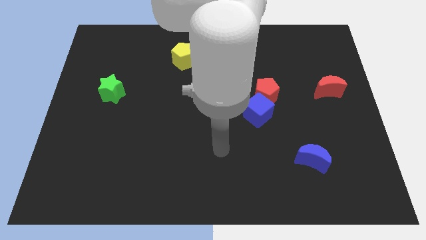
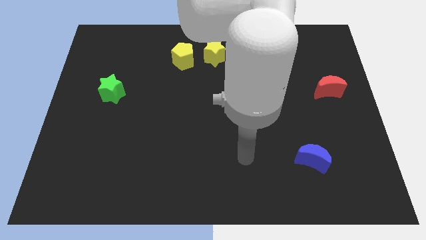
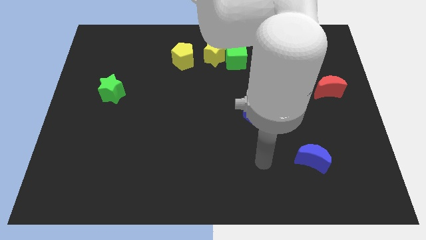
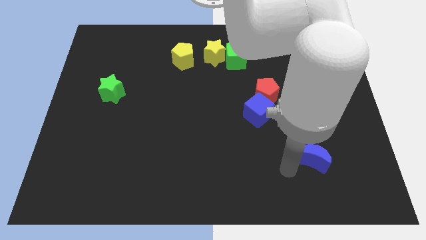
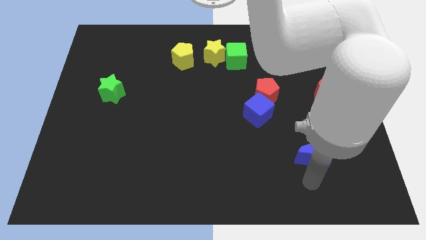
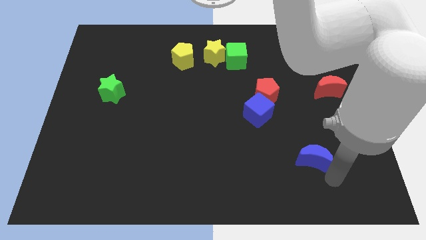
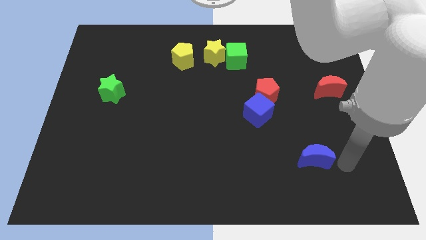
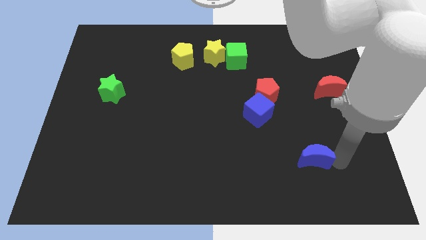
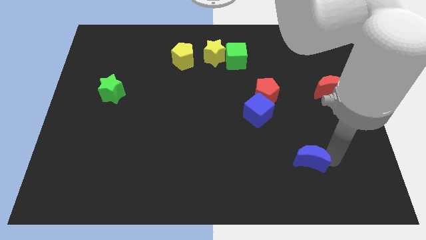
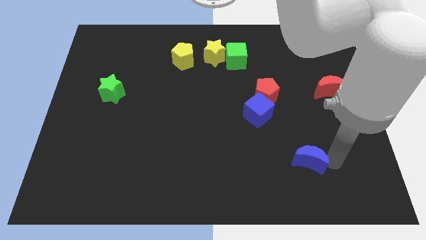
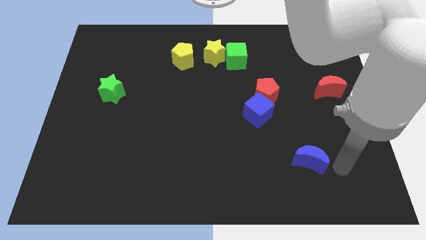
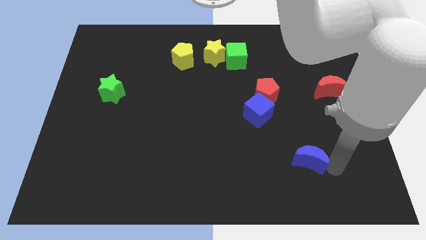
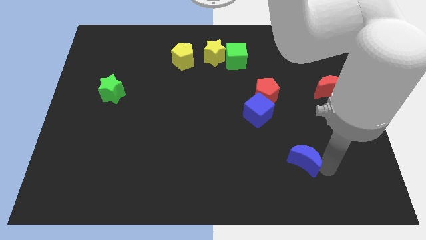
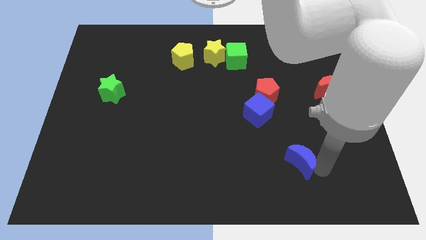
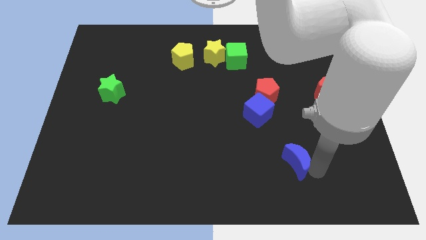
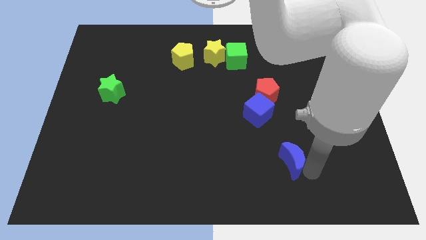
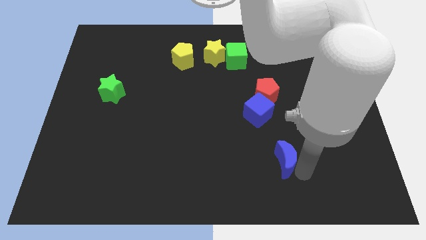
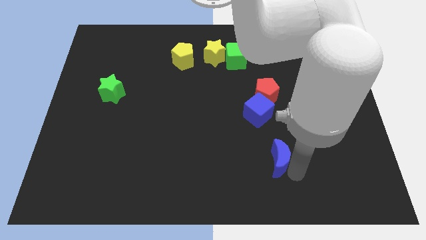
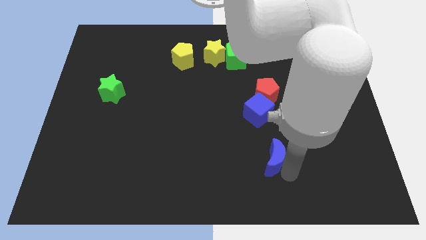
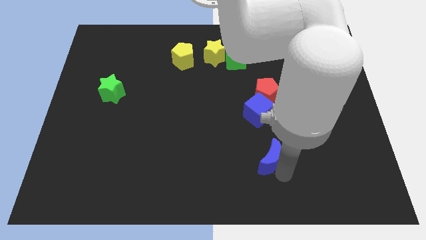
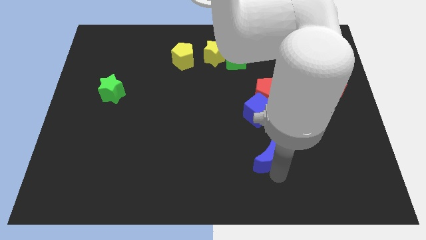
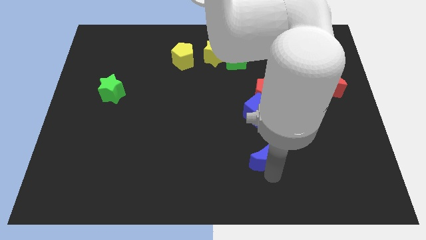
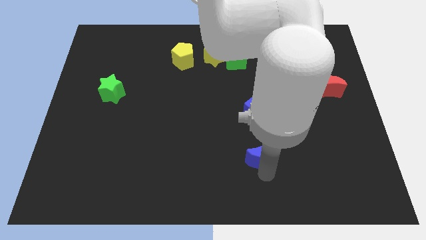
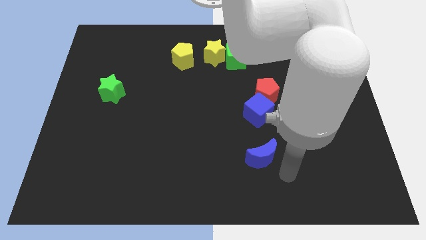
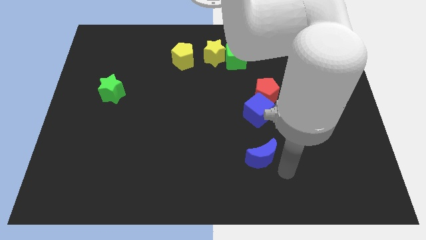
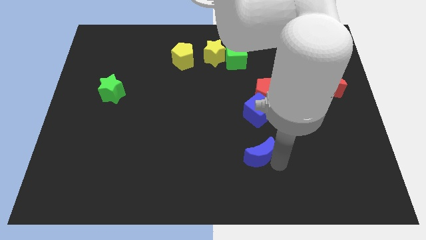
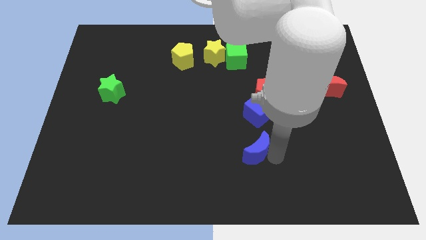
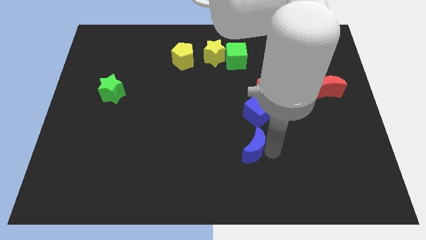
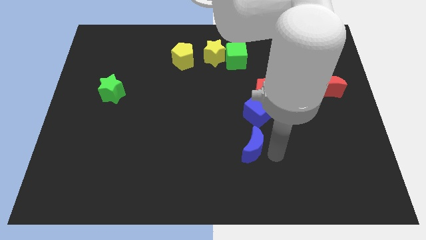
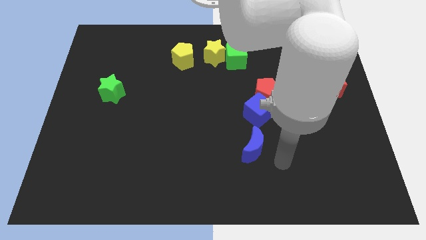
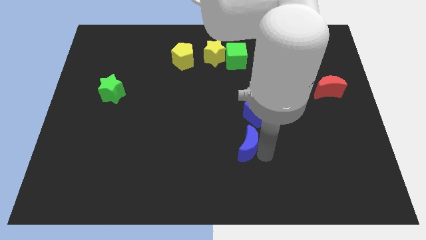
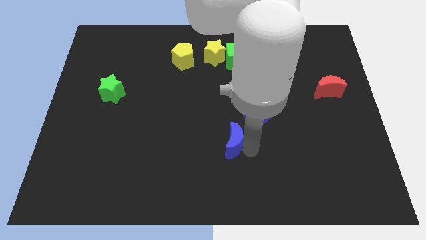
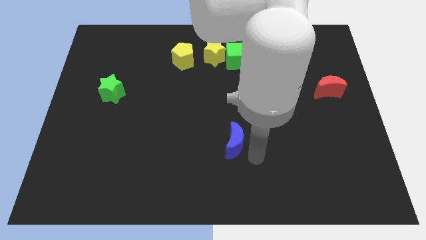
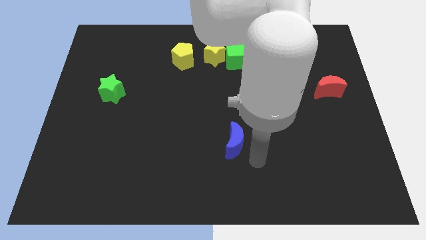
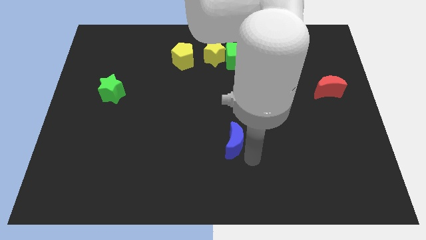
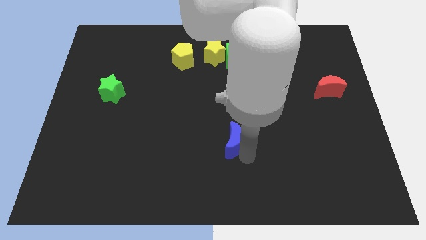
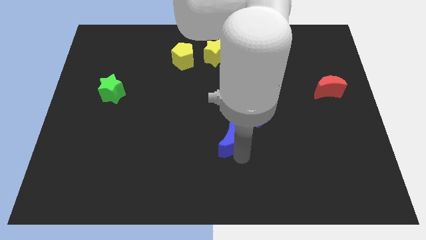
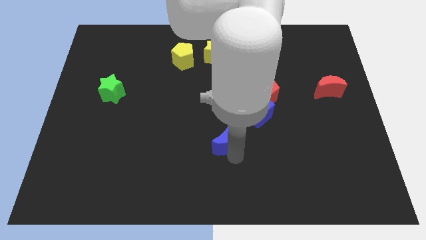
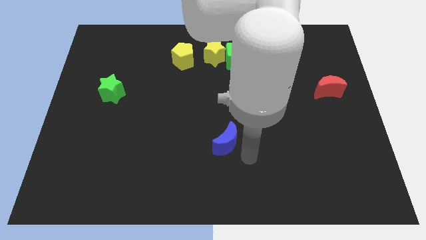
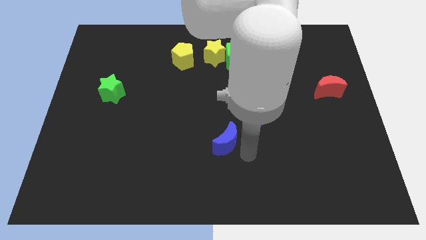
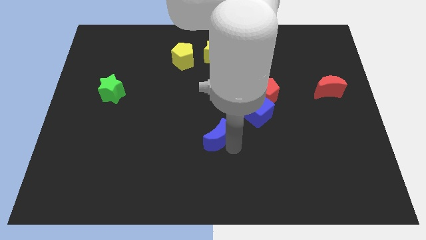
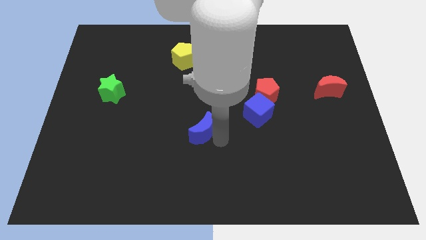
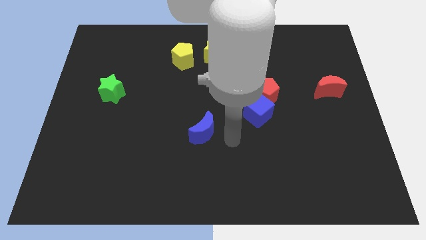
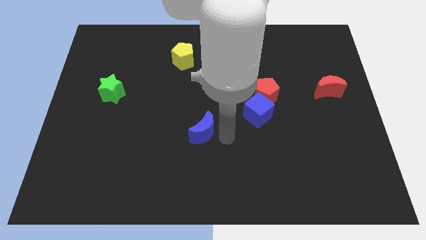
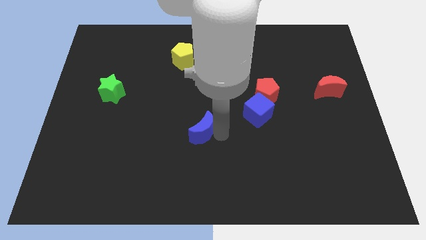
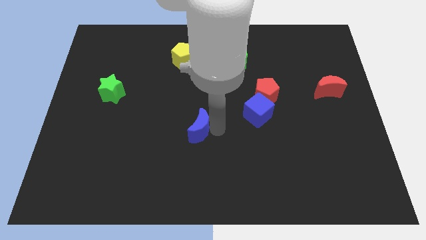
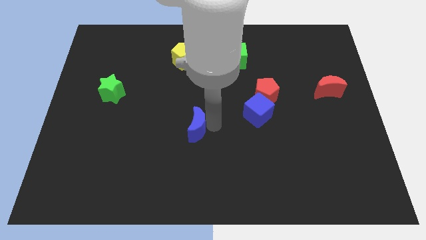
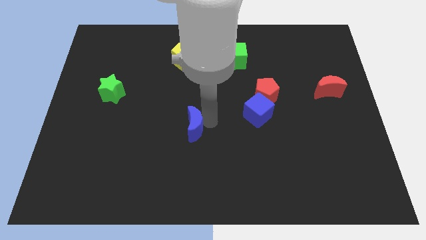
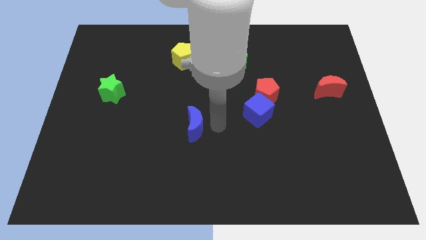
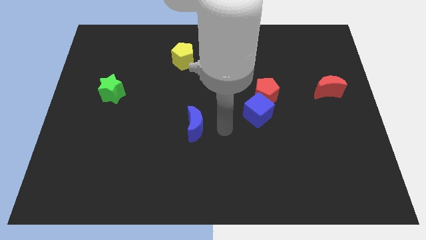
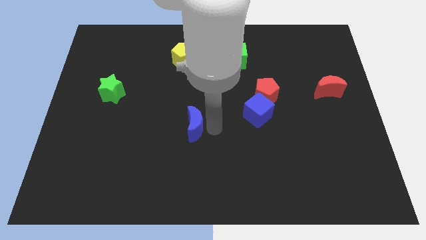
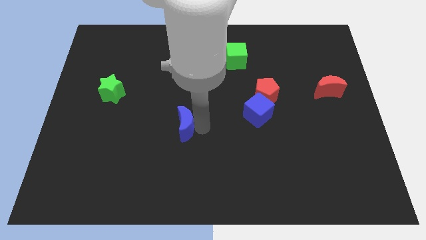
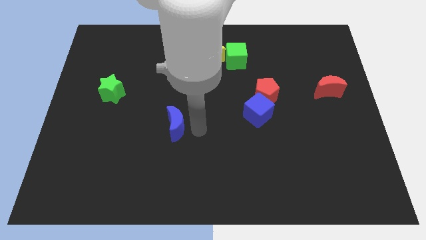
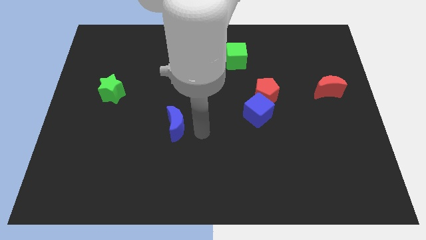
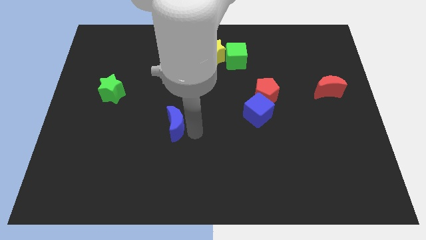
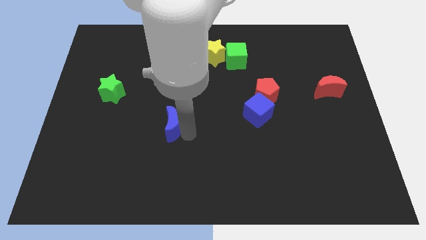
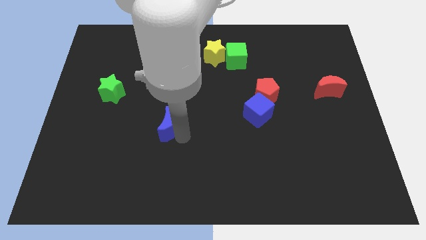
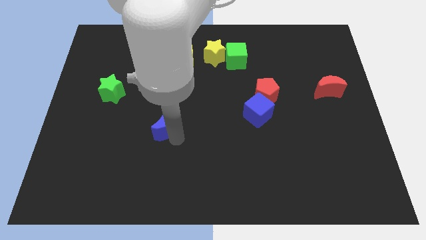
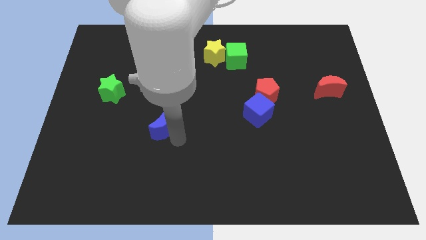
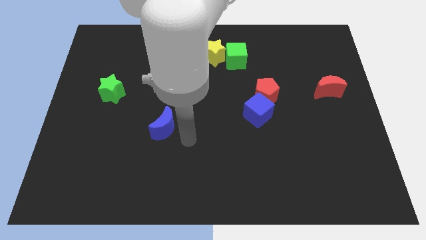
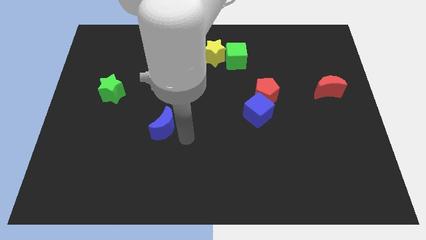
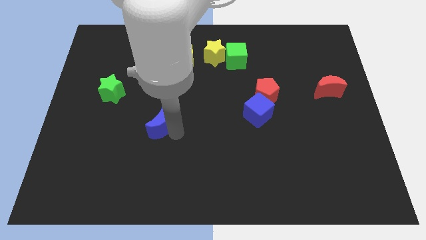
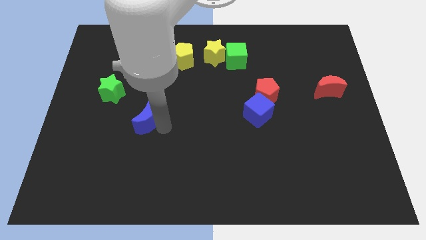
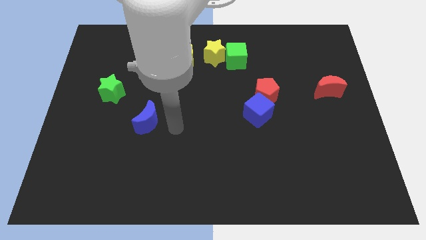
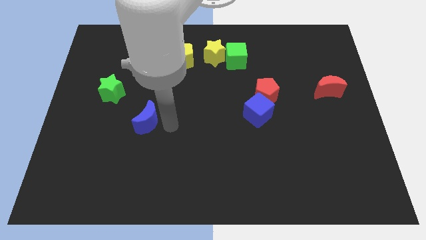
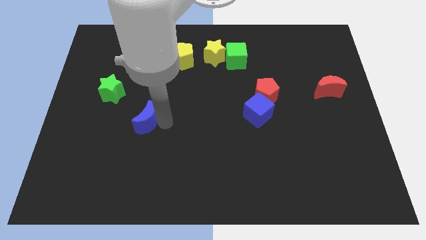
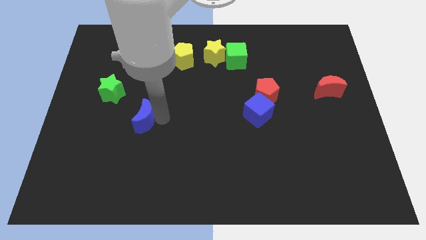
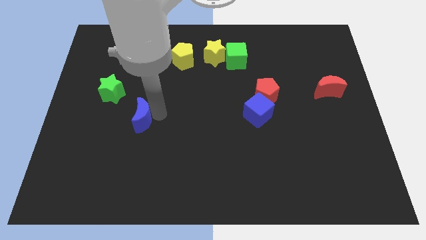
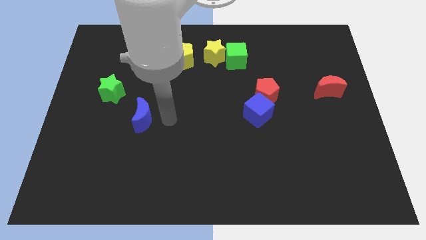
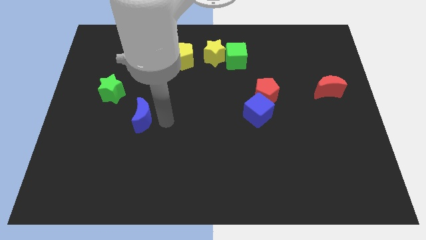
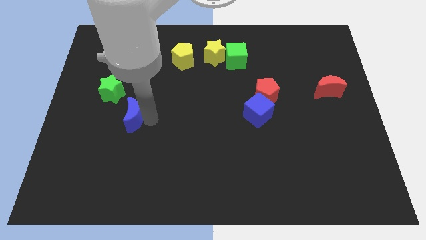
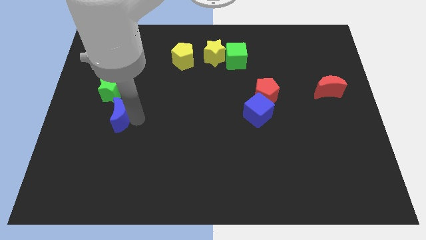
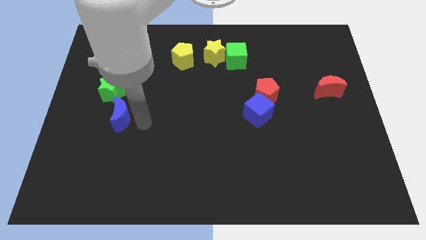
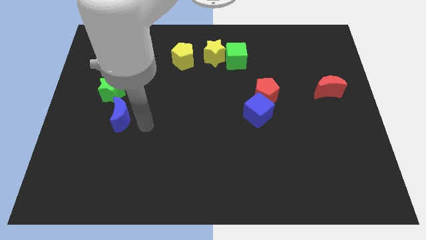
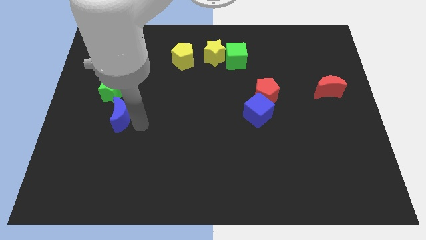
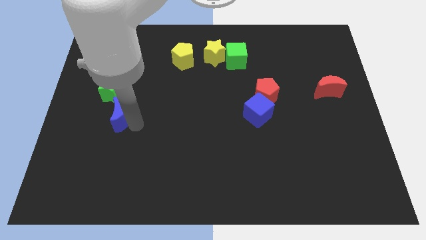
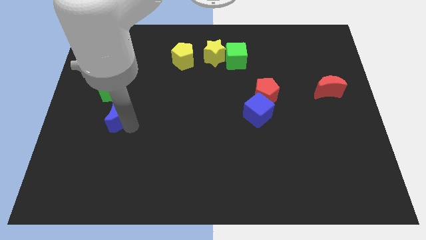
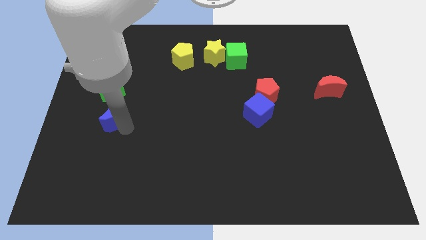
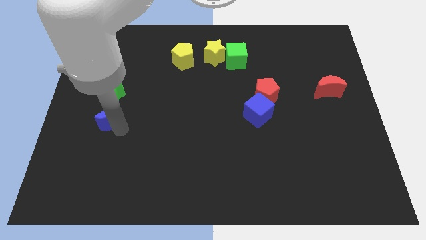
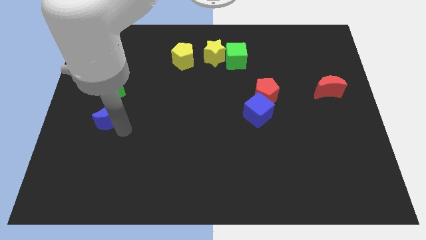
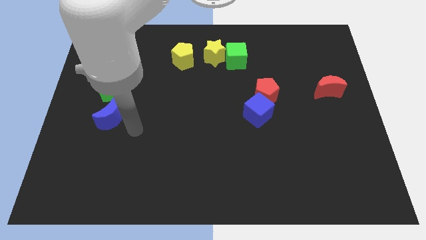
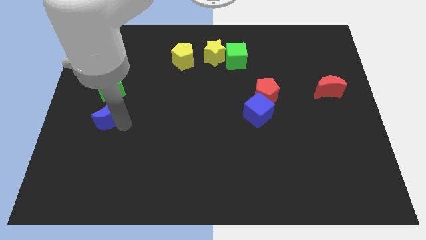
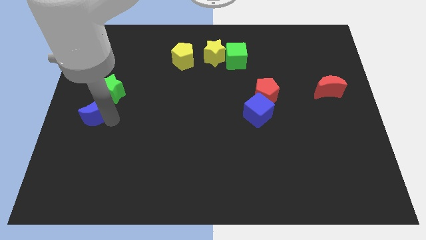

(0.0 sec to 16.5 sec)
push the blue moon to the left side of the board
